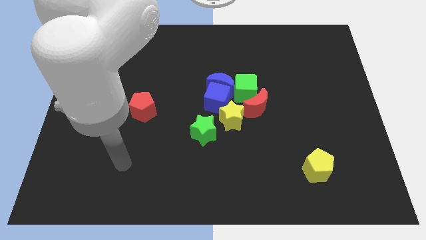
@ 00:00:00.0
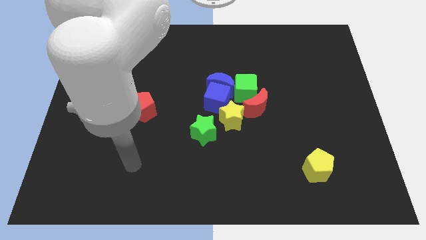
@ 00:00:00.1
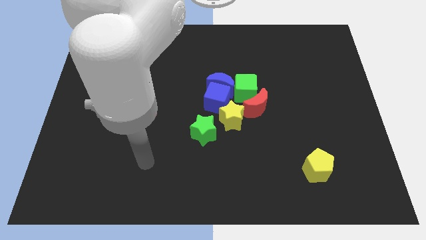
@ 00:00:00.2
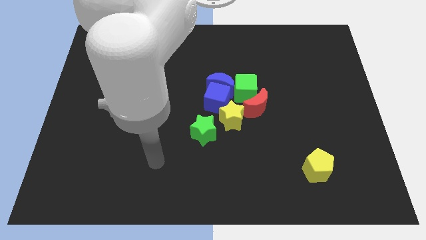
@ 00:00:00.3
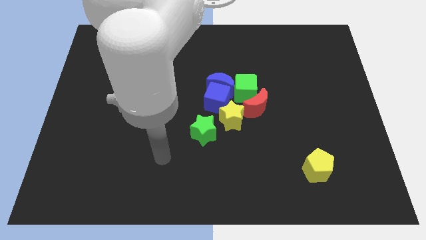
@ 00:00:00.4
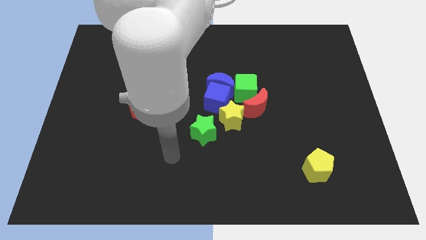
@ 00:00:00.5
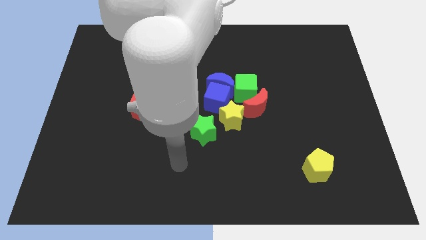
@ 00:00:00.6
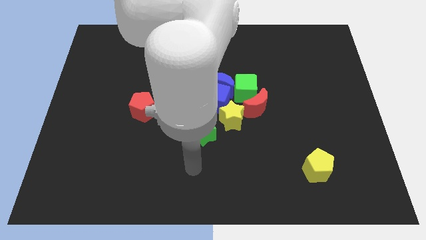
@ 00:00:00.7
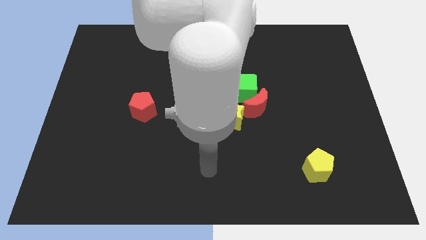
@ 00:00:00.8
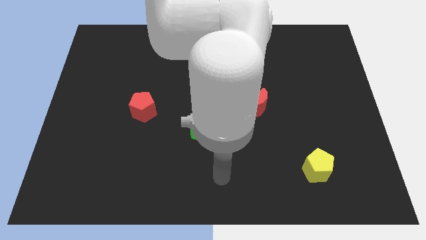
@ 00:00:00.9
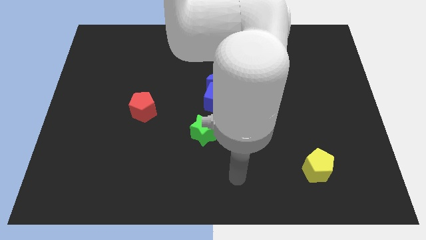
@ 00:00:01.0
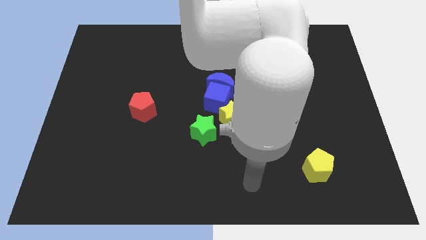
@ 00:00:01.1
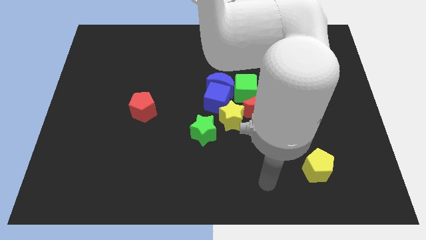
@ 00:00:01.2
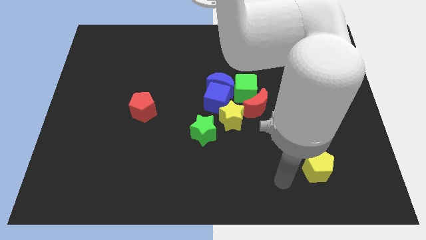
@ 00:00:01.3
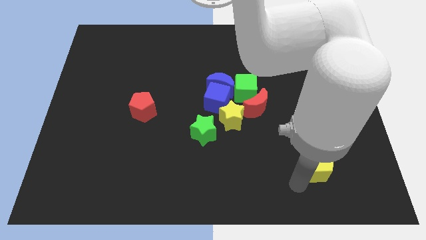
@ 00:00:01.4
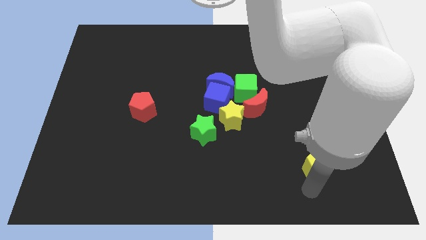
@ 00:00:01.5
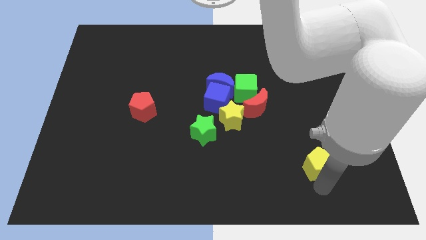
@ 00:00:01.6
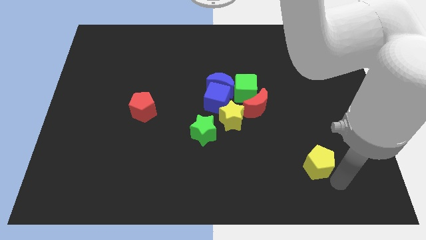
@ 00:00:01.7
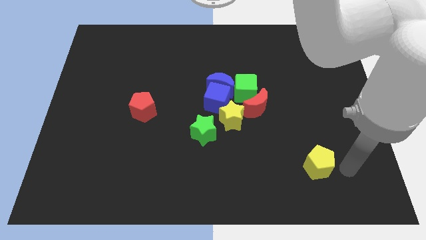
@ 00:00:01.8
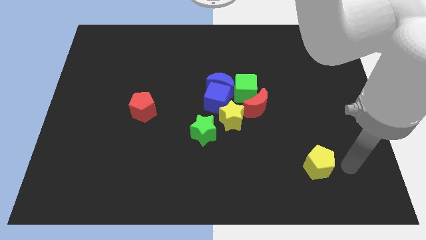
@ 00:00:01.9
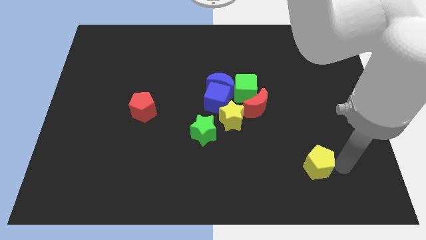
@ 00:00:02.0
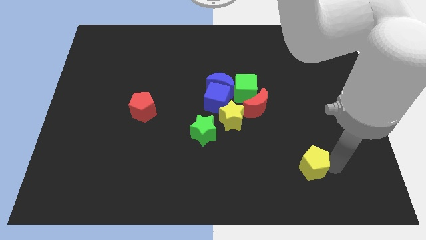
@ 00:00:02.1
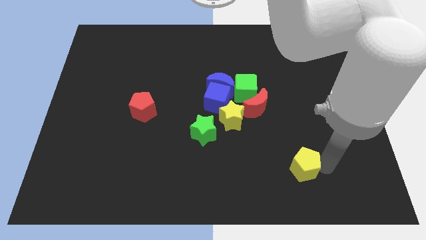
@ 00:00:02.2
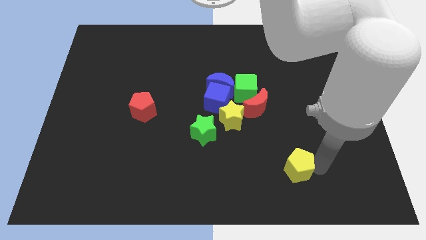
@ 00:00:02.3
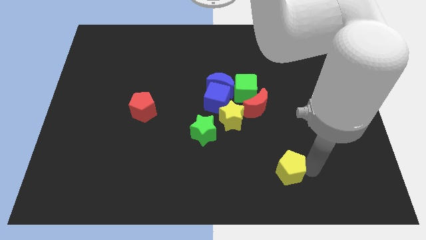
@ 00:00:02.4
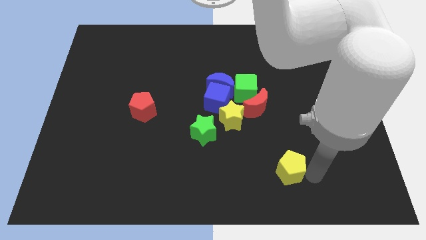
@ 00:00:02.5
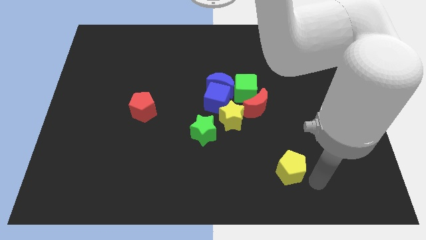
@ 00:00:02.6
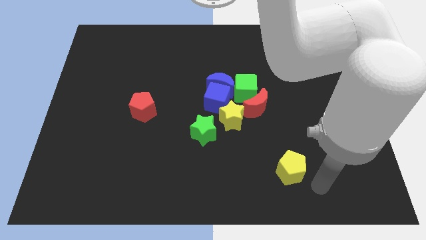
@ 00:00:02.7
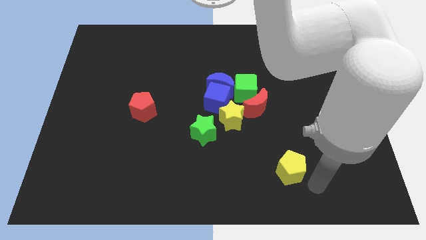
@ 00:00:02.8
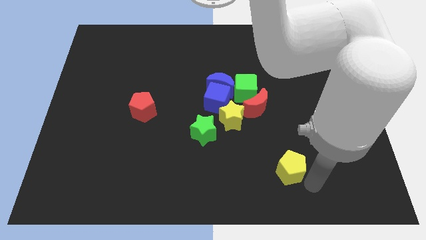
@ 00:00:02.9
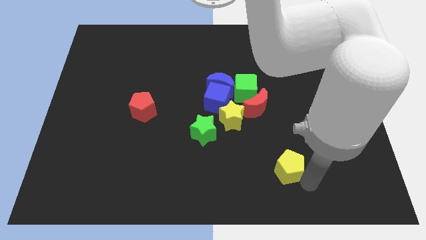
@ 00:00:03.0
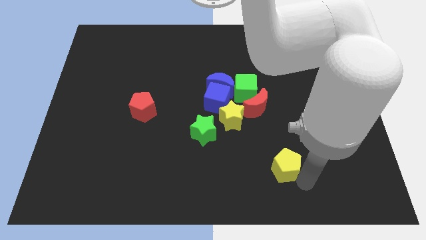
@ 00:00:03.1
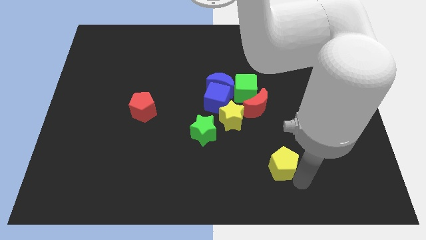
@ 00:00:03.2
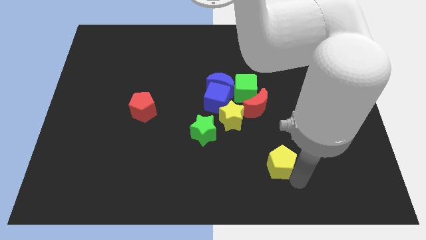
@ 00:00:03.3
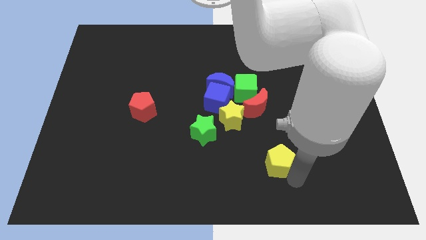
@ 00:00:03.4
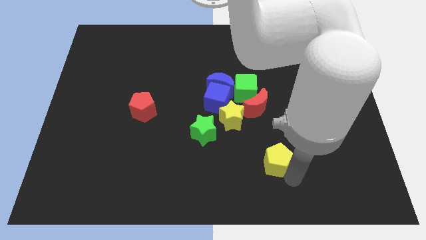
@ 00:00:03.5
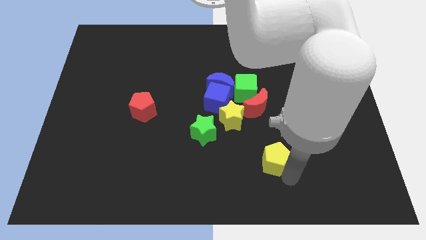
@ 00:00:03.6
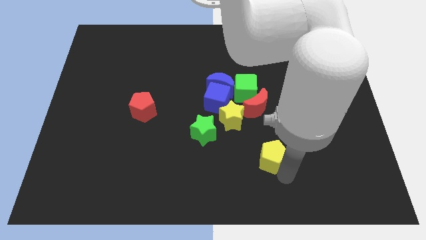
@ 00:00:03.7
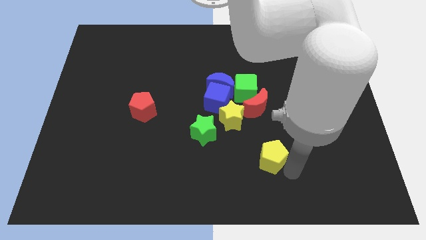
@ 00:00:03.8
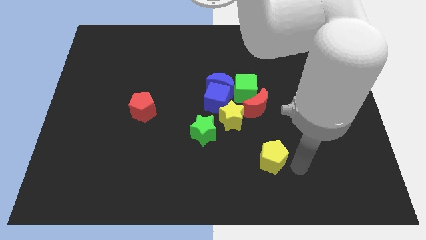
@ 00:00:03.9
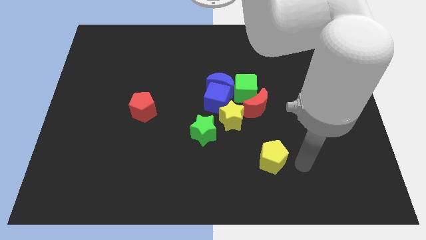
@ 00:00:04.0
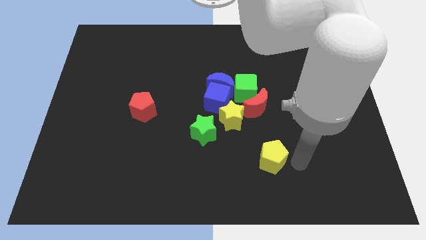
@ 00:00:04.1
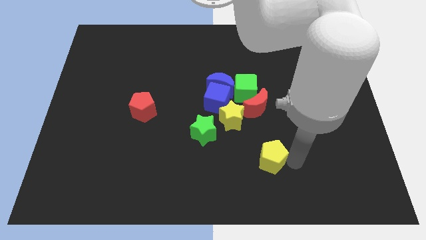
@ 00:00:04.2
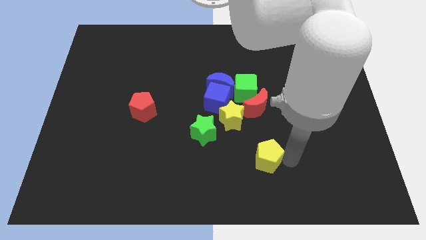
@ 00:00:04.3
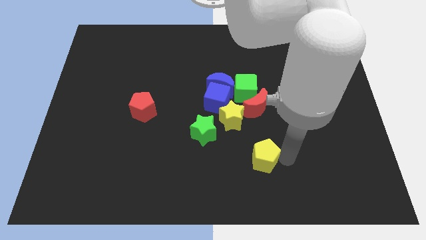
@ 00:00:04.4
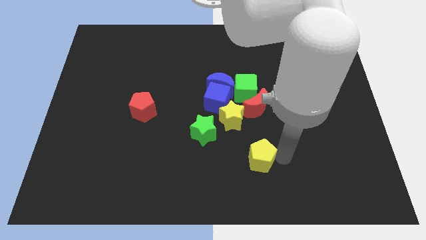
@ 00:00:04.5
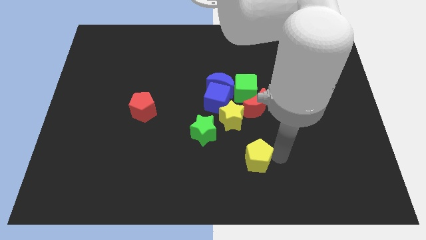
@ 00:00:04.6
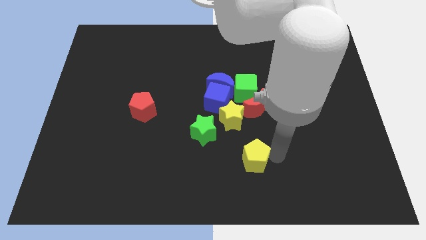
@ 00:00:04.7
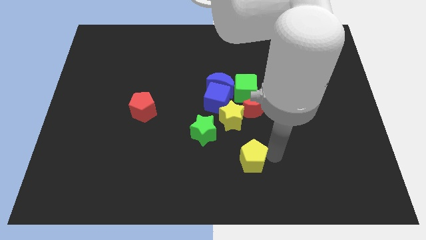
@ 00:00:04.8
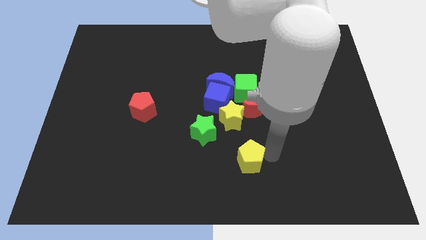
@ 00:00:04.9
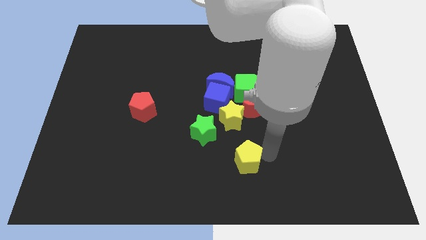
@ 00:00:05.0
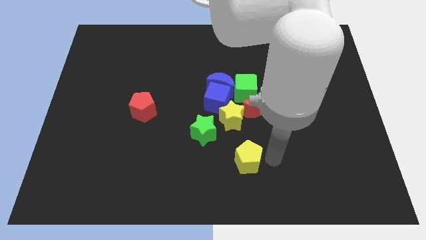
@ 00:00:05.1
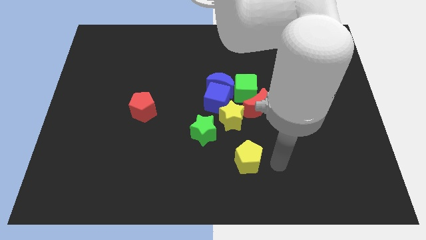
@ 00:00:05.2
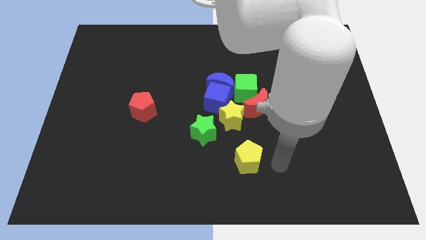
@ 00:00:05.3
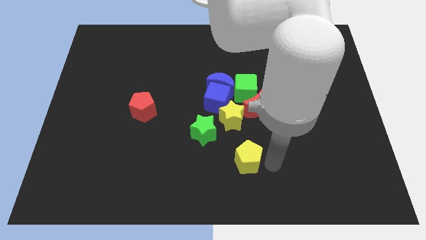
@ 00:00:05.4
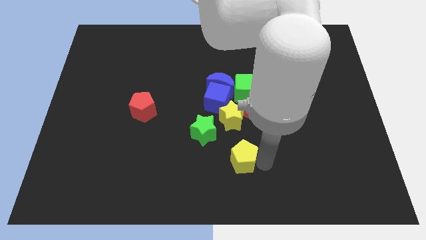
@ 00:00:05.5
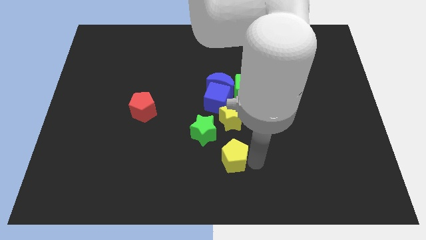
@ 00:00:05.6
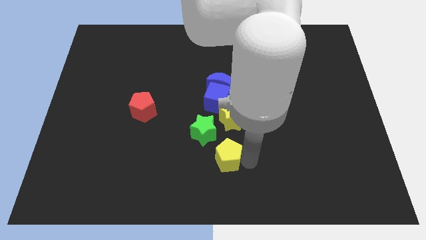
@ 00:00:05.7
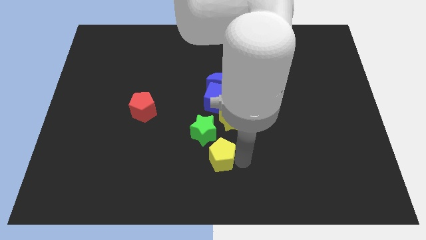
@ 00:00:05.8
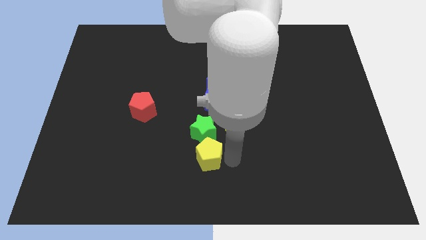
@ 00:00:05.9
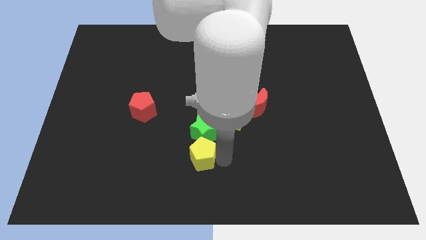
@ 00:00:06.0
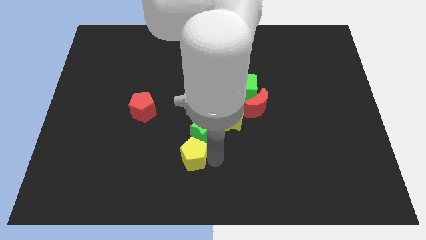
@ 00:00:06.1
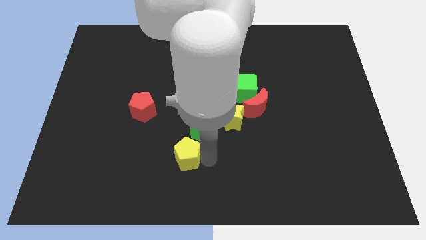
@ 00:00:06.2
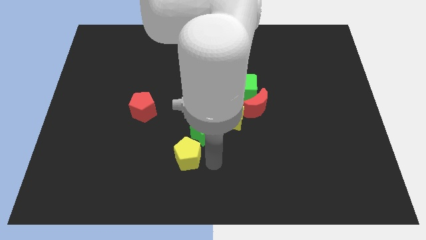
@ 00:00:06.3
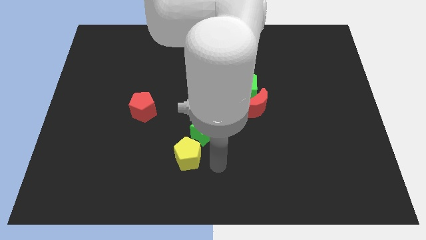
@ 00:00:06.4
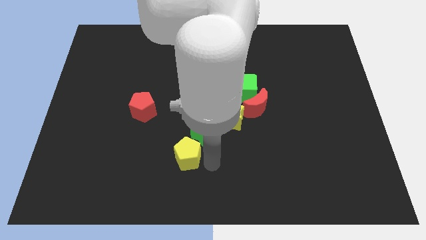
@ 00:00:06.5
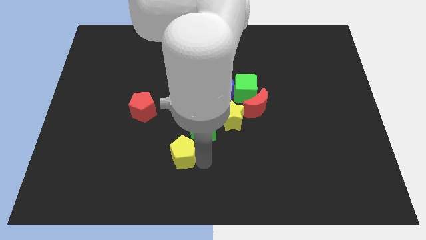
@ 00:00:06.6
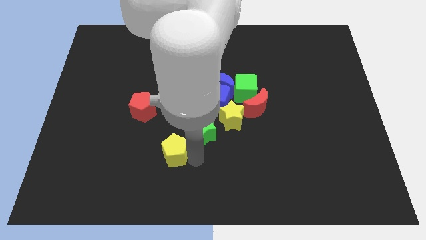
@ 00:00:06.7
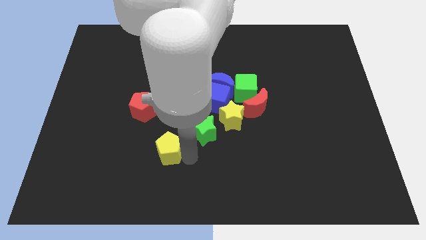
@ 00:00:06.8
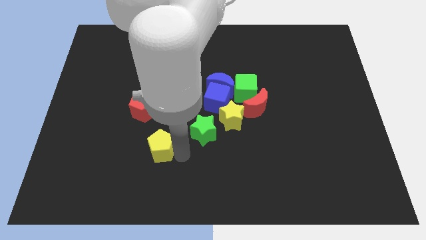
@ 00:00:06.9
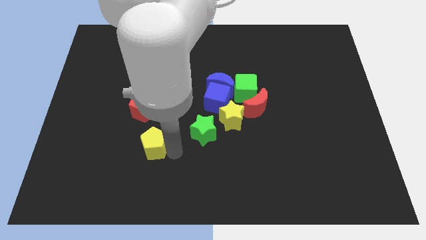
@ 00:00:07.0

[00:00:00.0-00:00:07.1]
push the yellow pentagon to the bottom side of the red pentagon
